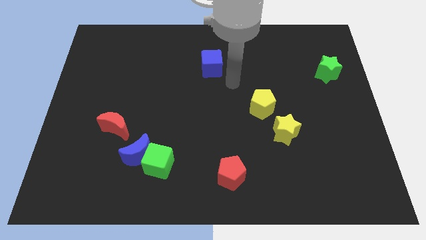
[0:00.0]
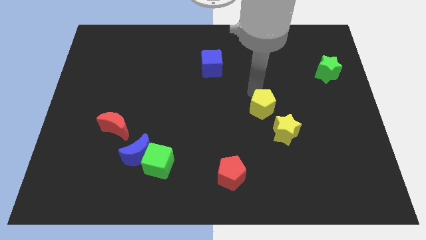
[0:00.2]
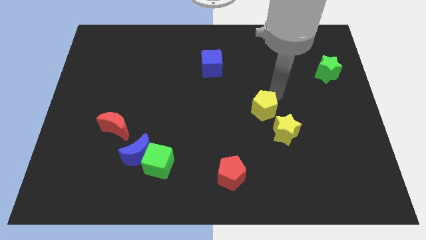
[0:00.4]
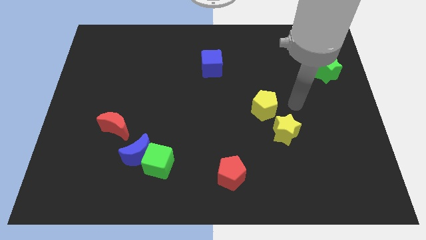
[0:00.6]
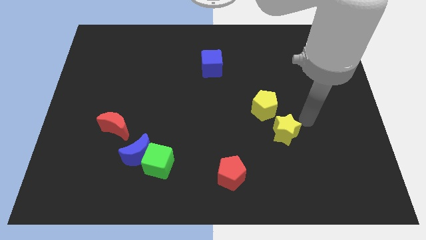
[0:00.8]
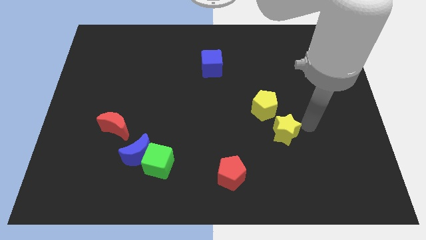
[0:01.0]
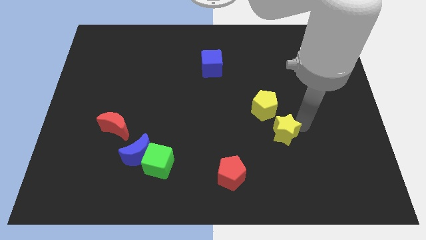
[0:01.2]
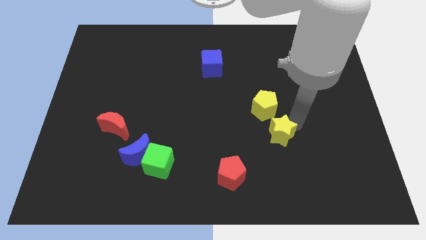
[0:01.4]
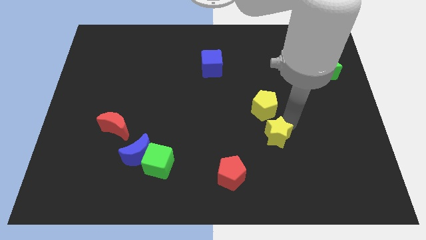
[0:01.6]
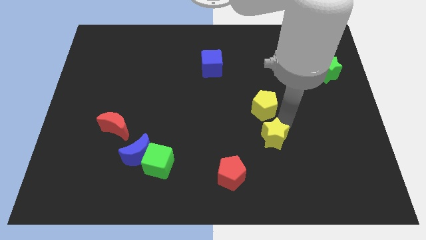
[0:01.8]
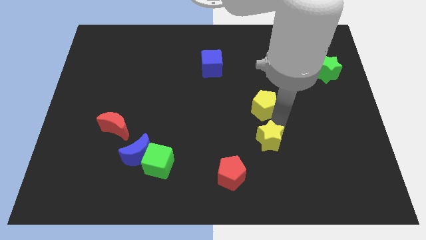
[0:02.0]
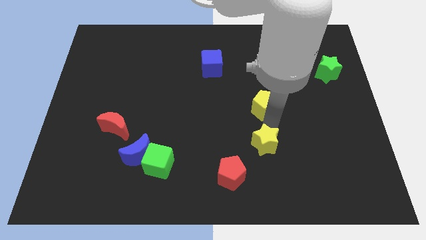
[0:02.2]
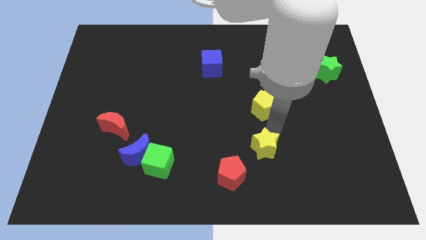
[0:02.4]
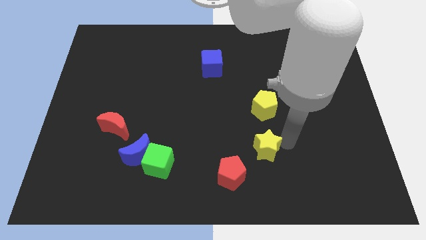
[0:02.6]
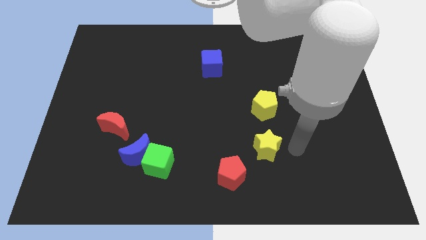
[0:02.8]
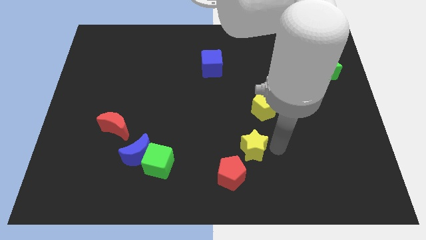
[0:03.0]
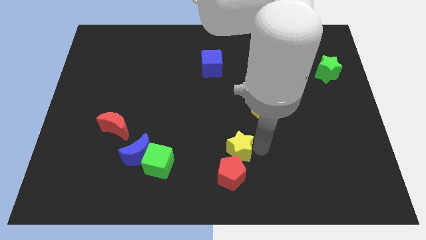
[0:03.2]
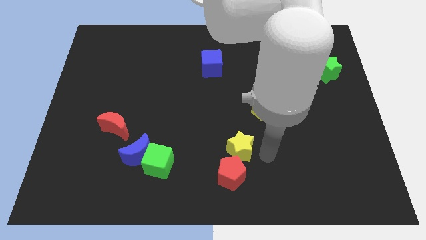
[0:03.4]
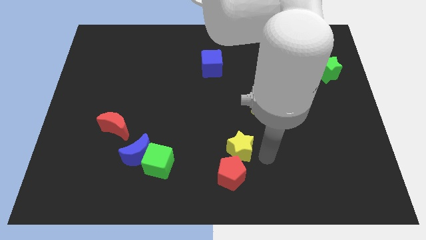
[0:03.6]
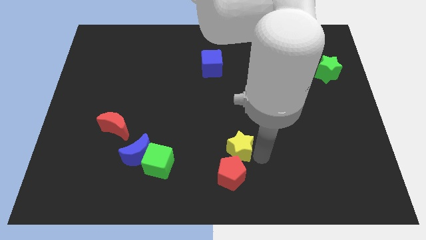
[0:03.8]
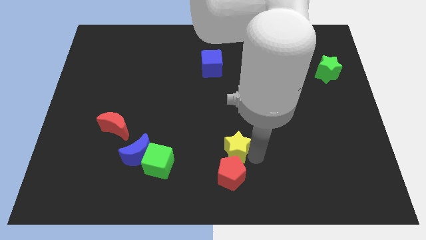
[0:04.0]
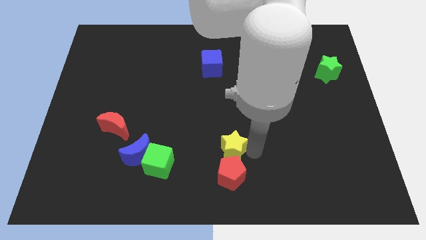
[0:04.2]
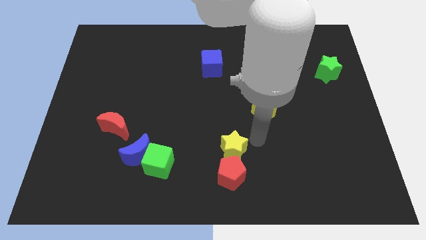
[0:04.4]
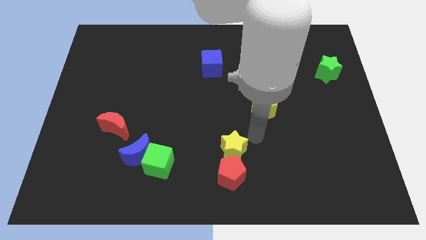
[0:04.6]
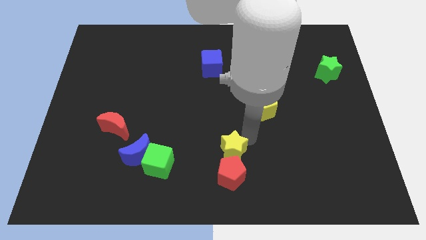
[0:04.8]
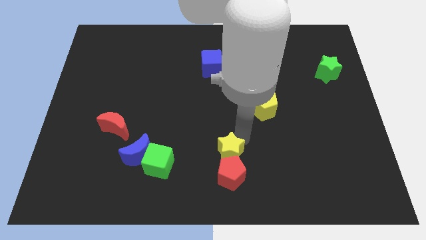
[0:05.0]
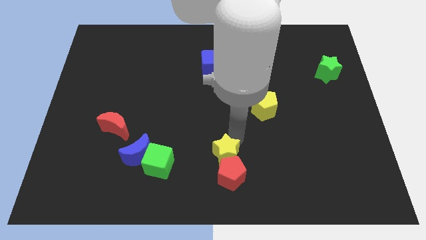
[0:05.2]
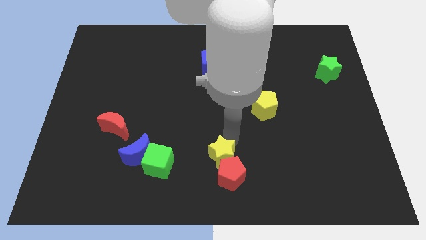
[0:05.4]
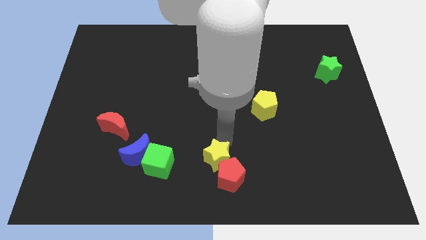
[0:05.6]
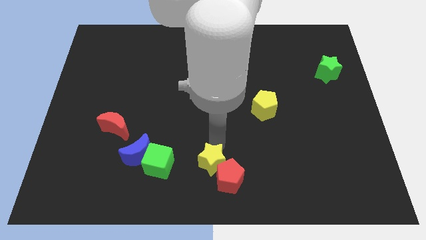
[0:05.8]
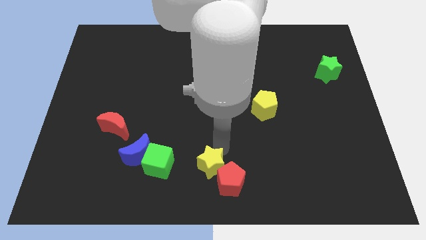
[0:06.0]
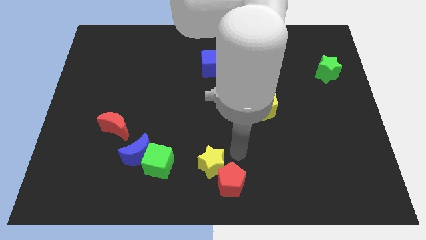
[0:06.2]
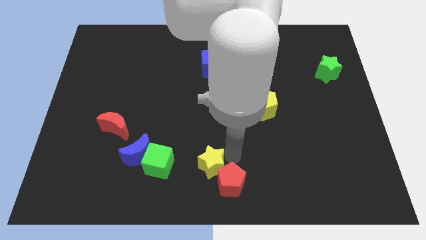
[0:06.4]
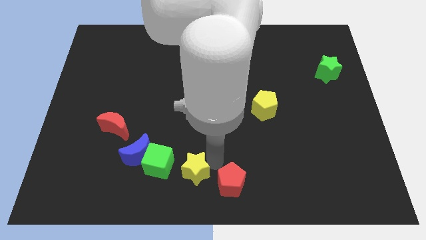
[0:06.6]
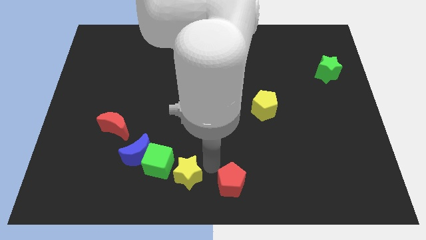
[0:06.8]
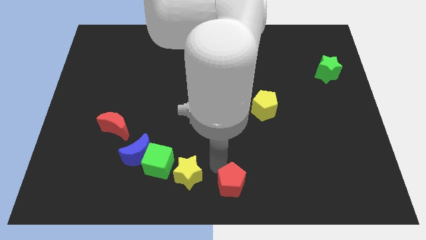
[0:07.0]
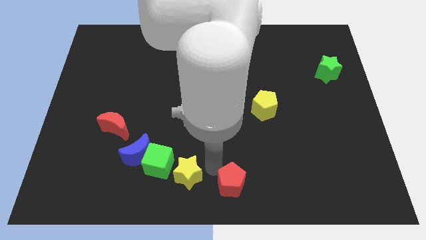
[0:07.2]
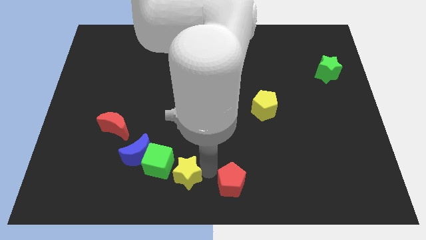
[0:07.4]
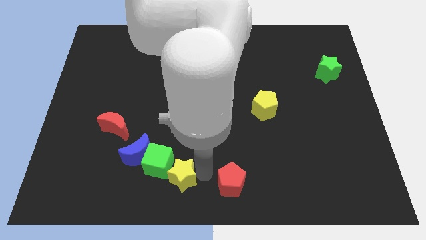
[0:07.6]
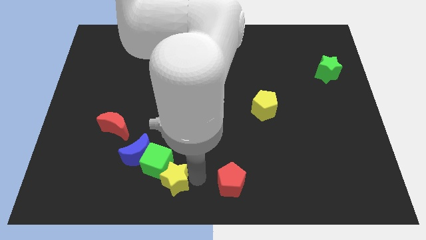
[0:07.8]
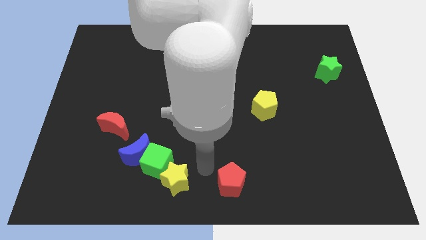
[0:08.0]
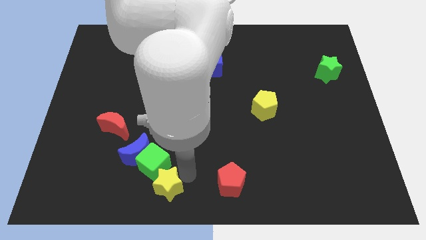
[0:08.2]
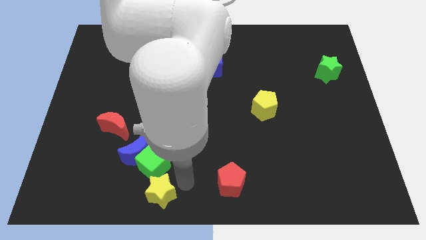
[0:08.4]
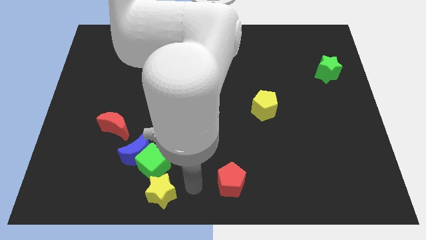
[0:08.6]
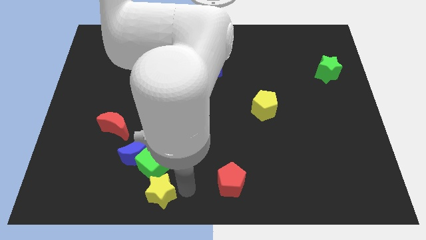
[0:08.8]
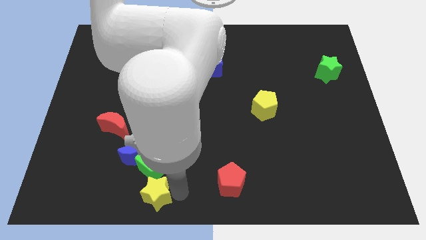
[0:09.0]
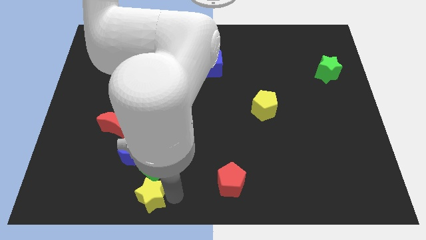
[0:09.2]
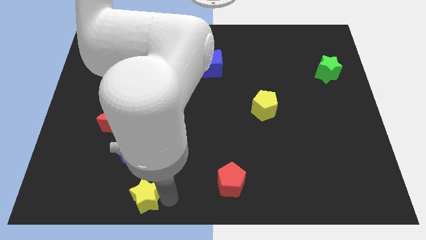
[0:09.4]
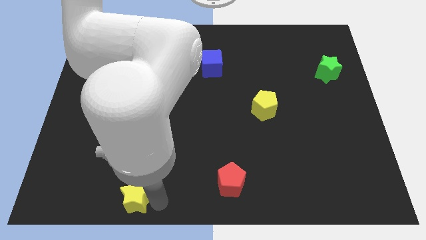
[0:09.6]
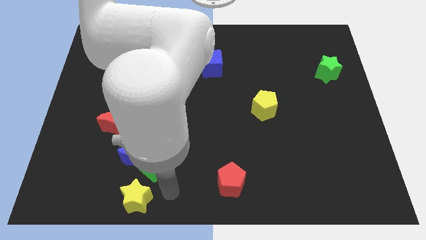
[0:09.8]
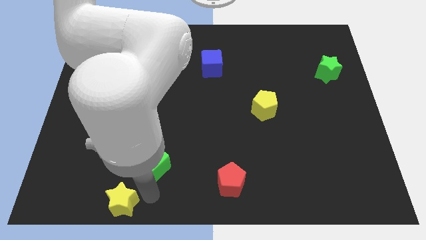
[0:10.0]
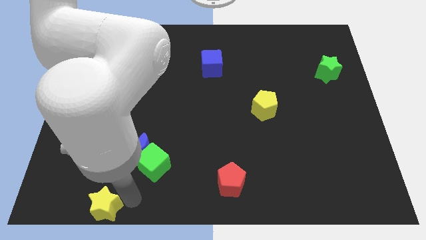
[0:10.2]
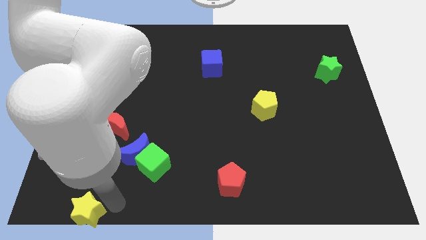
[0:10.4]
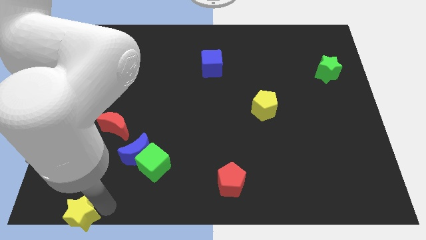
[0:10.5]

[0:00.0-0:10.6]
push the yellow star to the bottom left

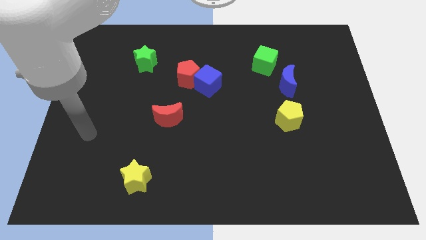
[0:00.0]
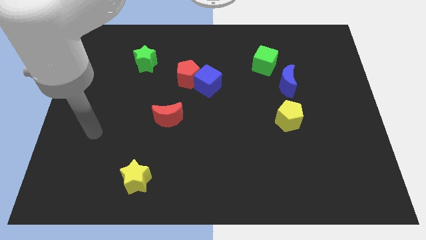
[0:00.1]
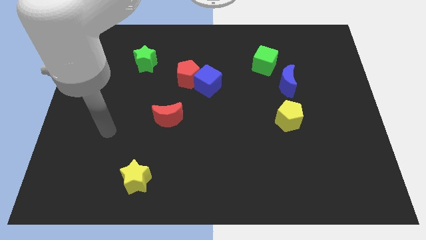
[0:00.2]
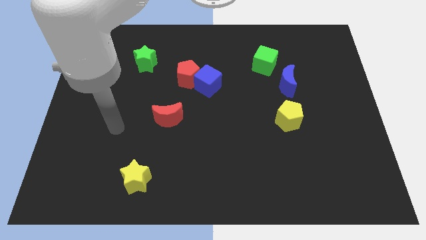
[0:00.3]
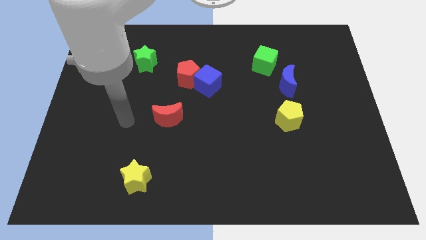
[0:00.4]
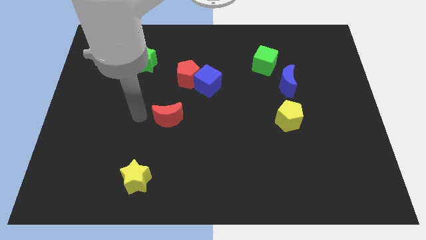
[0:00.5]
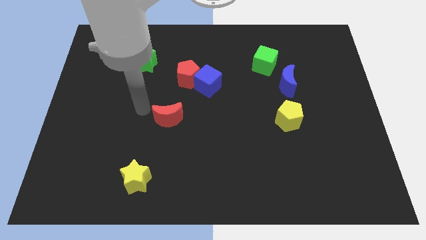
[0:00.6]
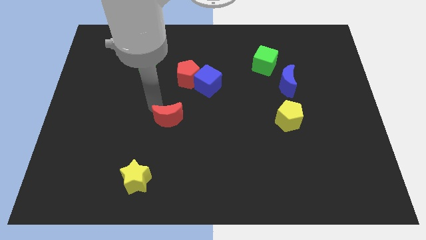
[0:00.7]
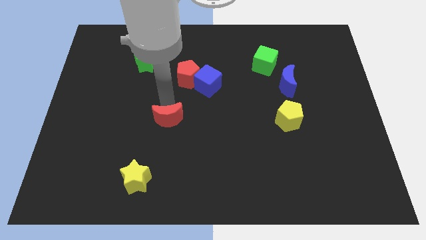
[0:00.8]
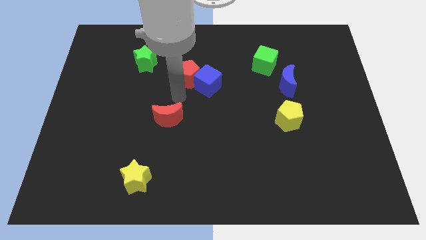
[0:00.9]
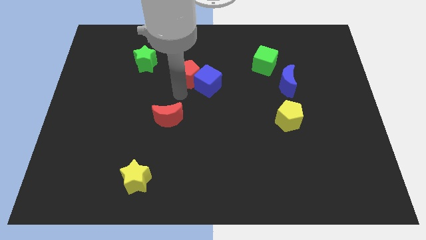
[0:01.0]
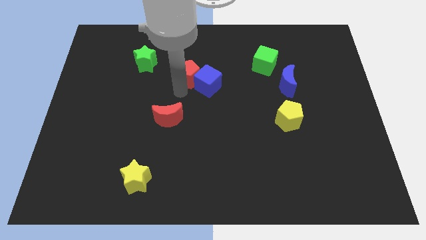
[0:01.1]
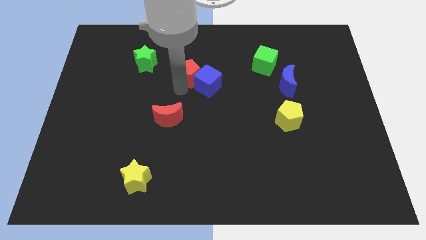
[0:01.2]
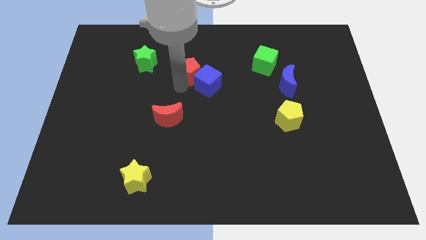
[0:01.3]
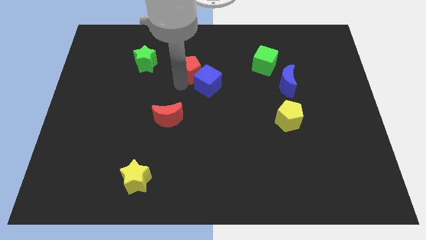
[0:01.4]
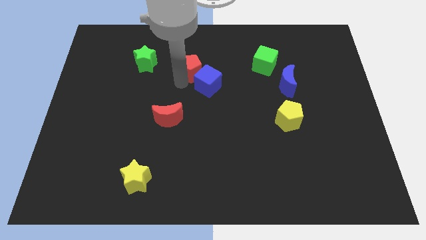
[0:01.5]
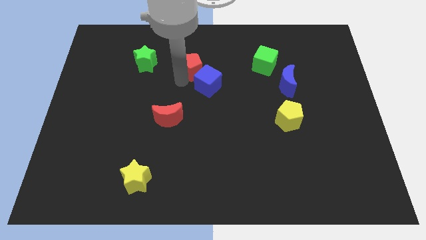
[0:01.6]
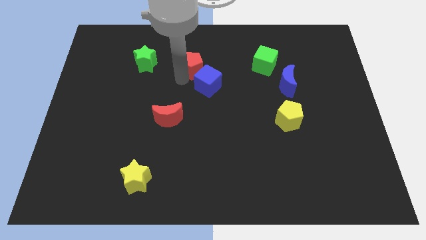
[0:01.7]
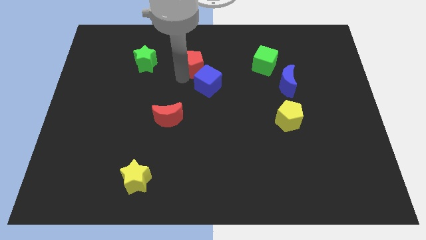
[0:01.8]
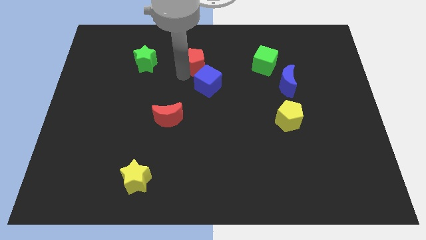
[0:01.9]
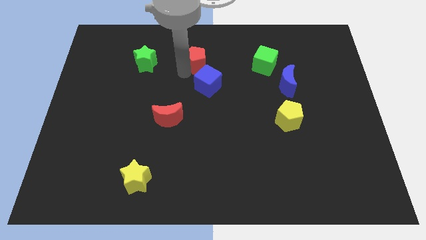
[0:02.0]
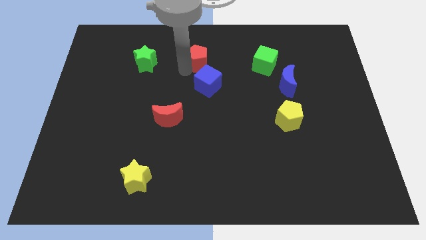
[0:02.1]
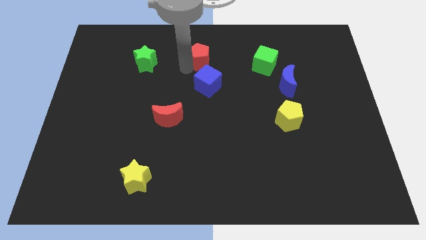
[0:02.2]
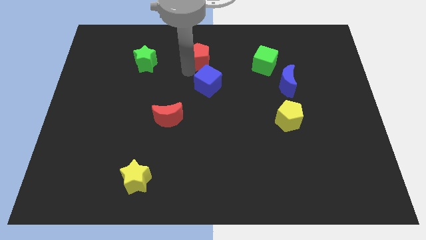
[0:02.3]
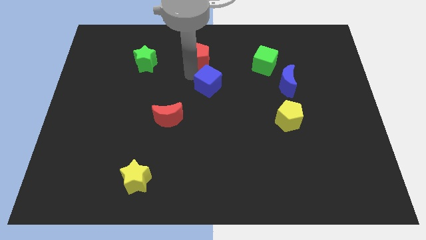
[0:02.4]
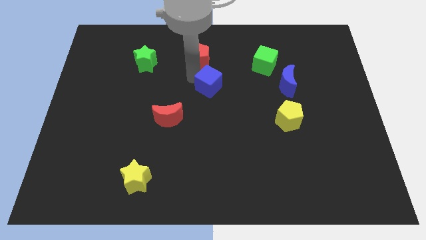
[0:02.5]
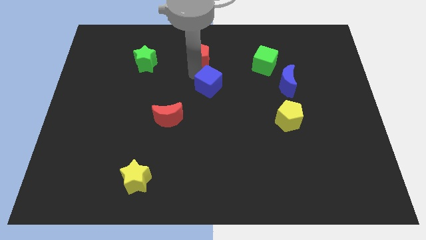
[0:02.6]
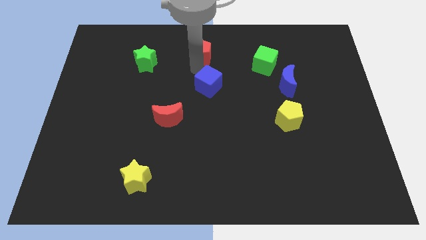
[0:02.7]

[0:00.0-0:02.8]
push the red pentagon to the towards your base
